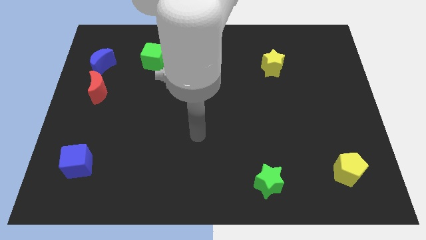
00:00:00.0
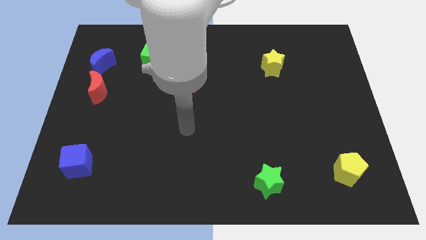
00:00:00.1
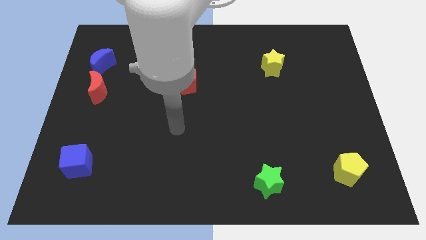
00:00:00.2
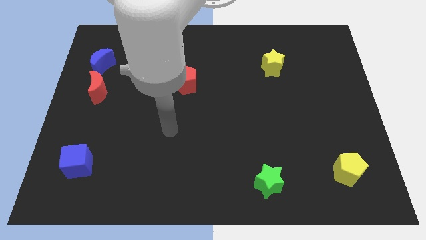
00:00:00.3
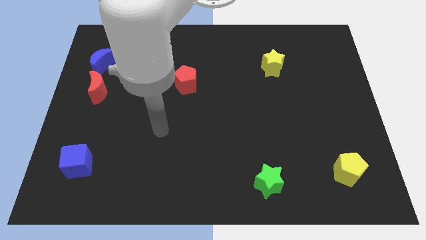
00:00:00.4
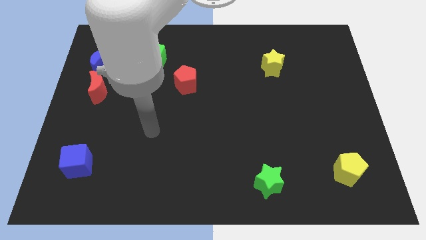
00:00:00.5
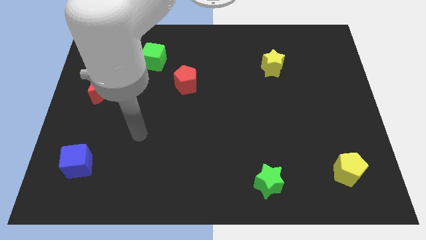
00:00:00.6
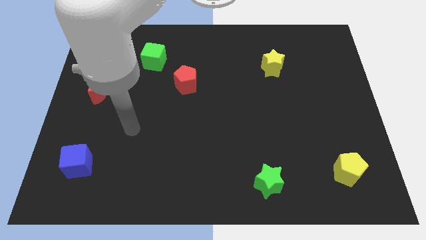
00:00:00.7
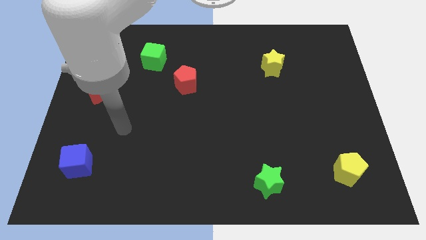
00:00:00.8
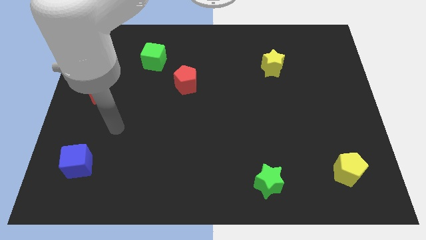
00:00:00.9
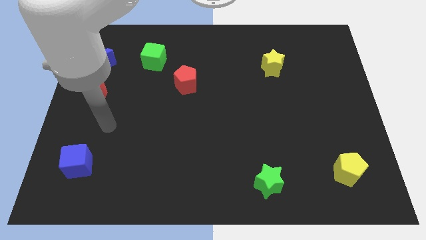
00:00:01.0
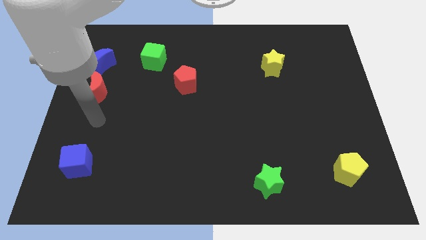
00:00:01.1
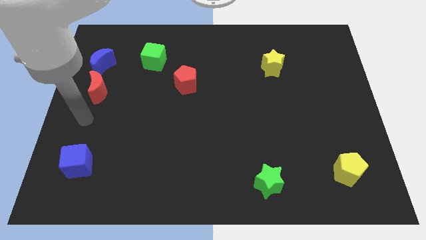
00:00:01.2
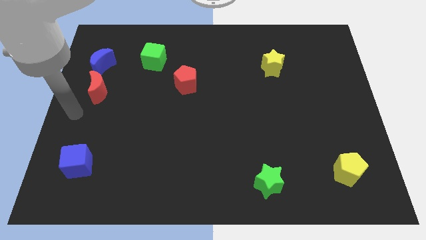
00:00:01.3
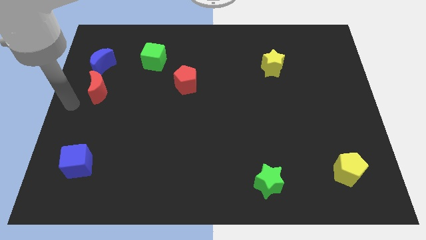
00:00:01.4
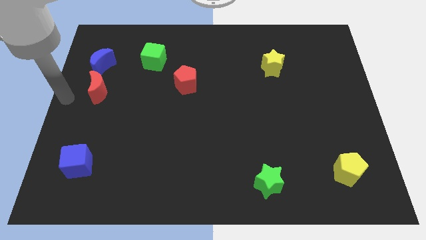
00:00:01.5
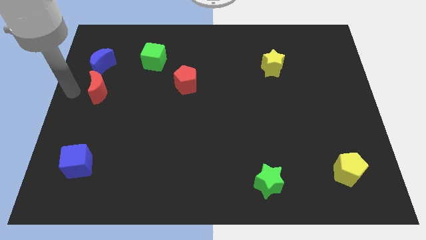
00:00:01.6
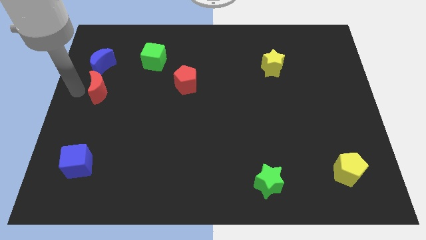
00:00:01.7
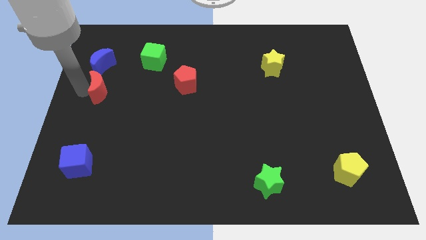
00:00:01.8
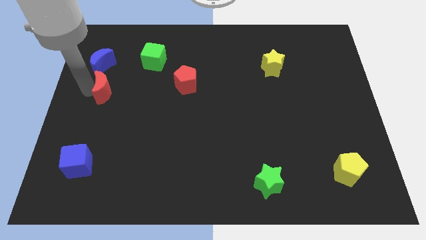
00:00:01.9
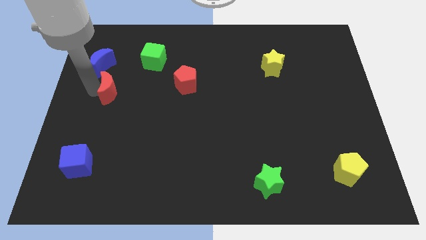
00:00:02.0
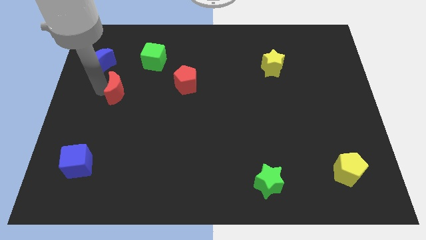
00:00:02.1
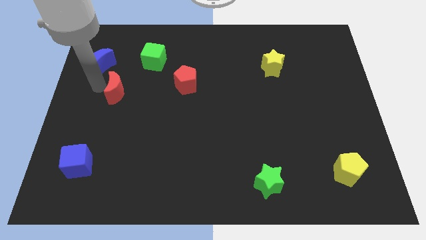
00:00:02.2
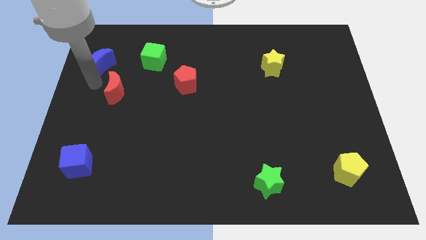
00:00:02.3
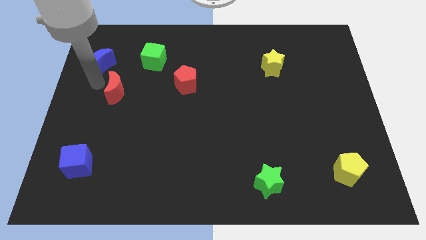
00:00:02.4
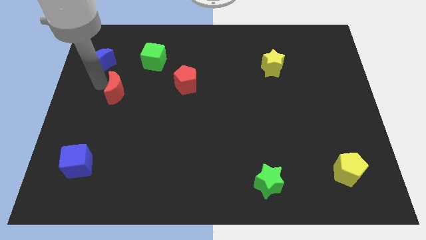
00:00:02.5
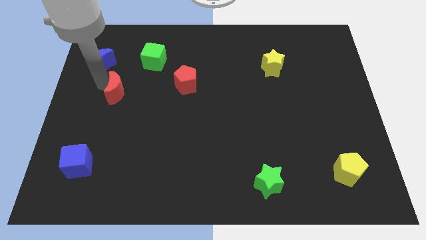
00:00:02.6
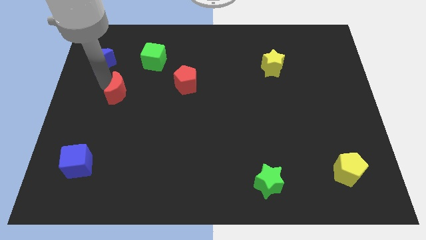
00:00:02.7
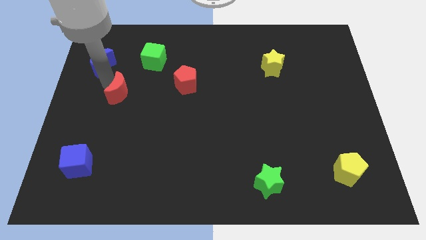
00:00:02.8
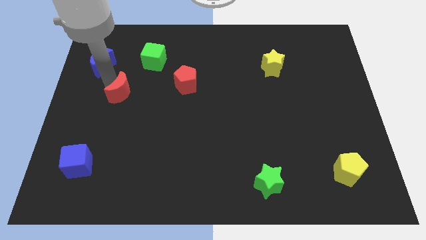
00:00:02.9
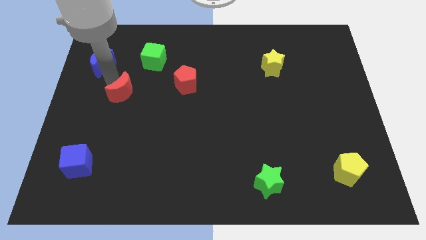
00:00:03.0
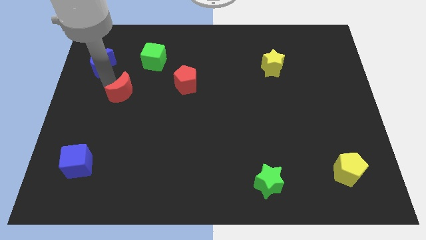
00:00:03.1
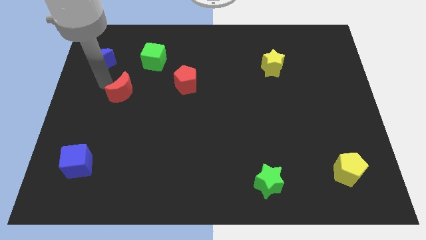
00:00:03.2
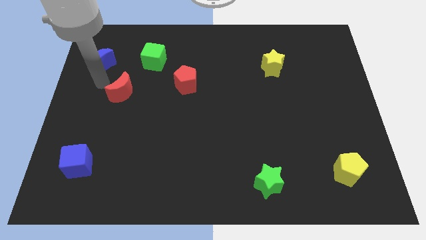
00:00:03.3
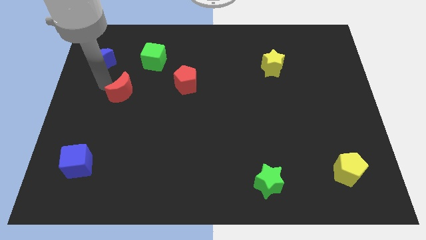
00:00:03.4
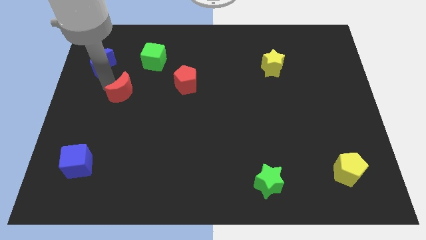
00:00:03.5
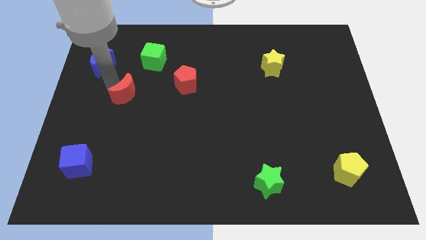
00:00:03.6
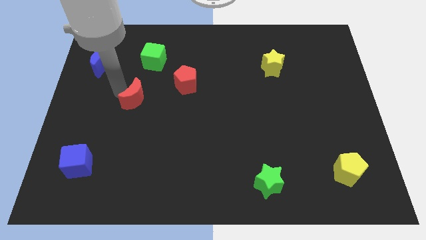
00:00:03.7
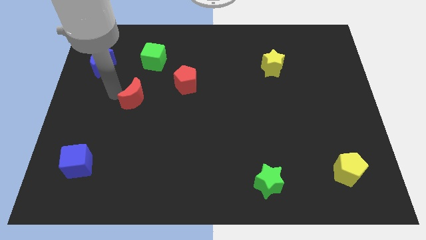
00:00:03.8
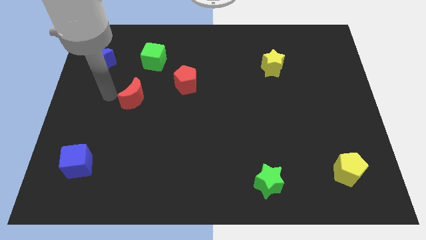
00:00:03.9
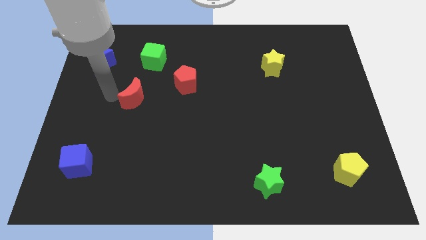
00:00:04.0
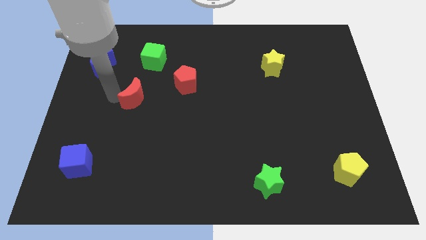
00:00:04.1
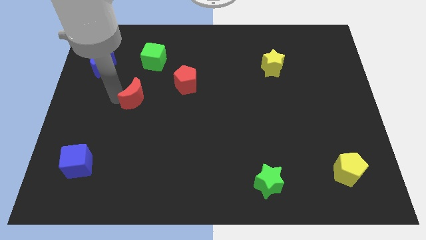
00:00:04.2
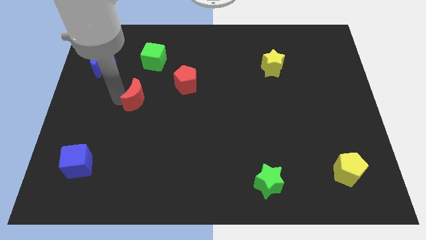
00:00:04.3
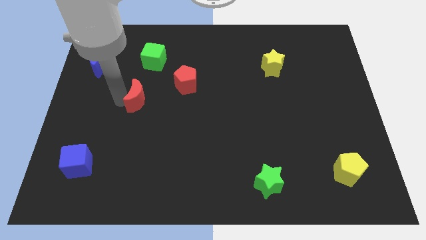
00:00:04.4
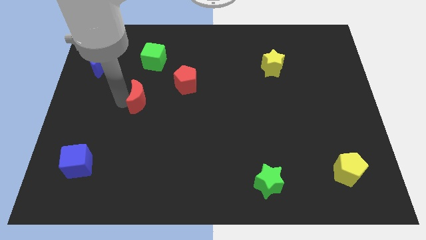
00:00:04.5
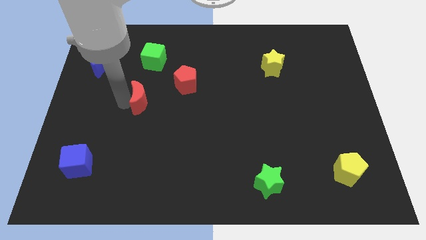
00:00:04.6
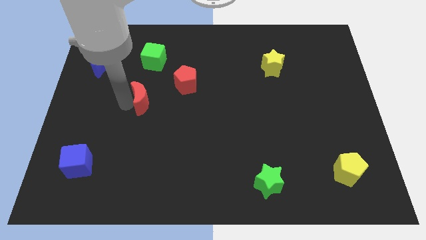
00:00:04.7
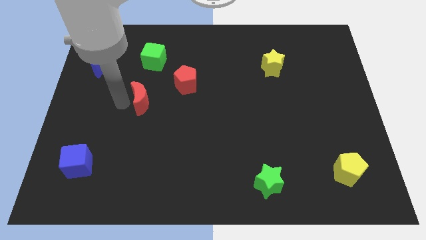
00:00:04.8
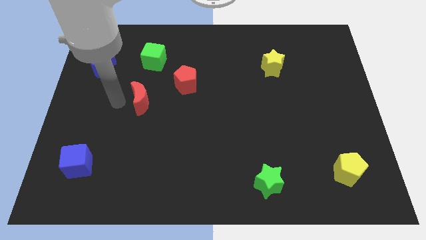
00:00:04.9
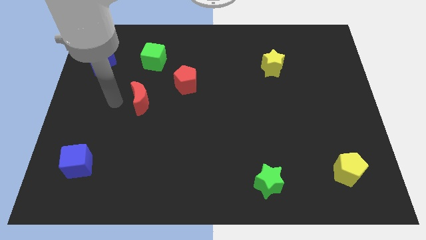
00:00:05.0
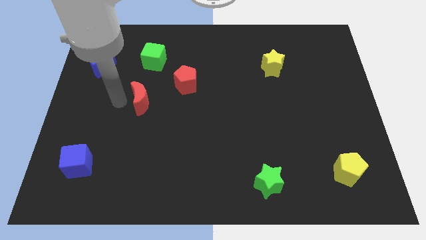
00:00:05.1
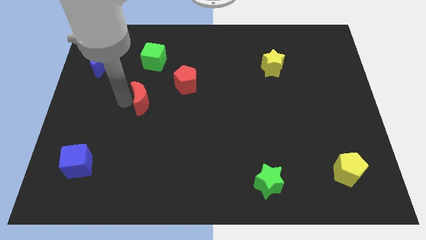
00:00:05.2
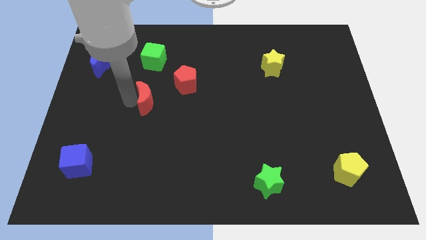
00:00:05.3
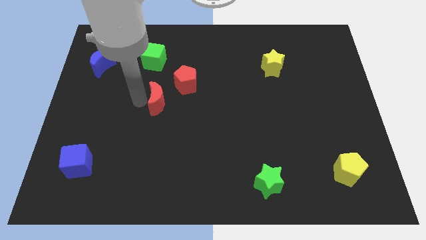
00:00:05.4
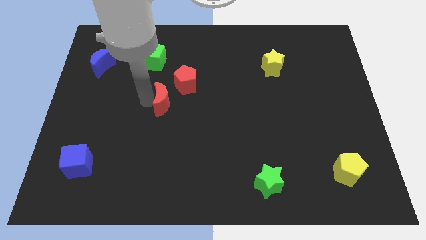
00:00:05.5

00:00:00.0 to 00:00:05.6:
put the red moon to the center

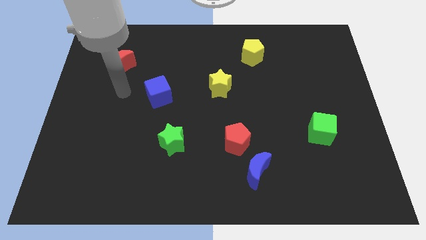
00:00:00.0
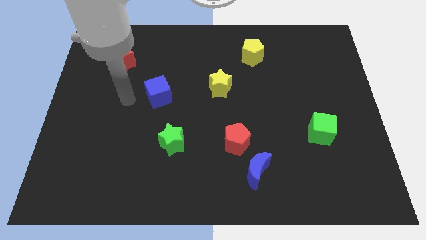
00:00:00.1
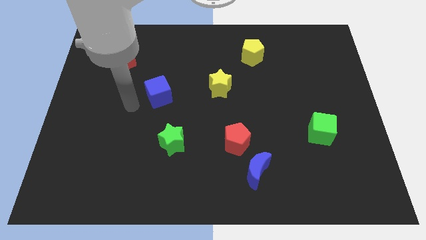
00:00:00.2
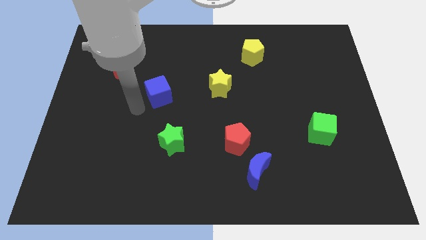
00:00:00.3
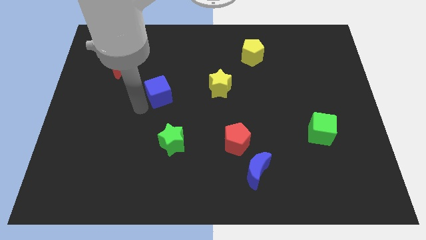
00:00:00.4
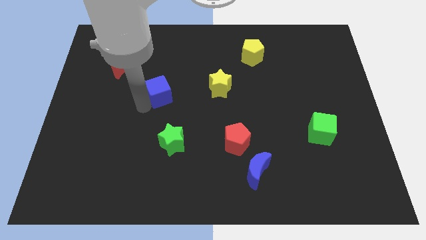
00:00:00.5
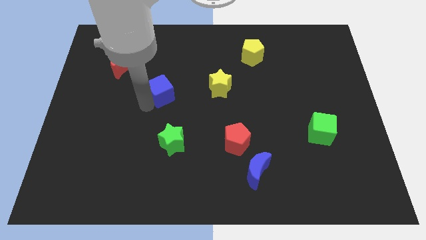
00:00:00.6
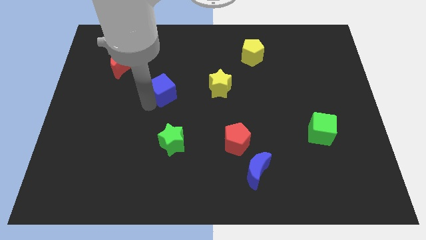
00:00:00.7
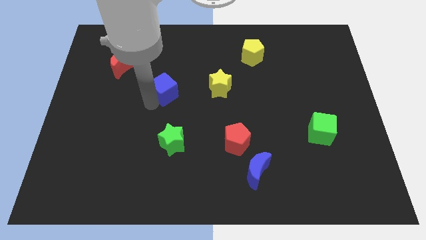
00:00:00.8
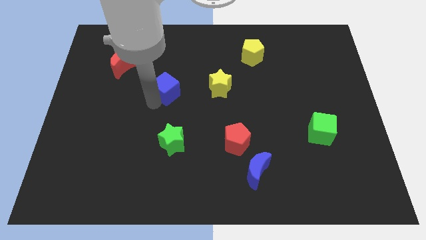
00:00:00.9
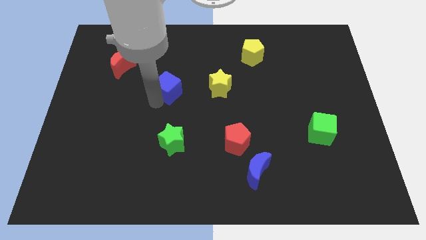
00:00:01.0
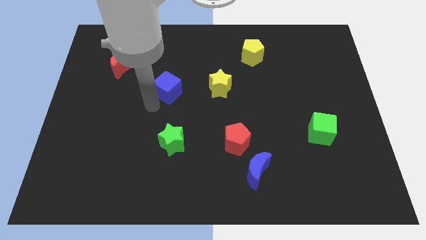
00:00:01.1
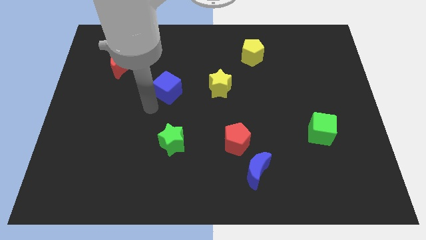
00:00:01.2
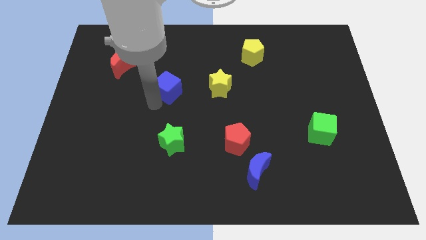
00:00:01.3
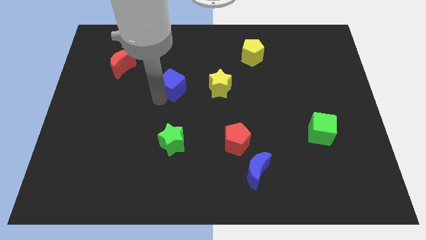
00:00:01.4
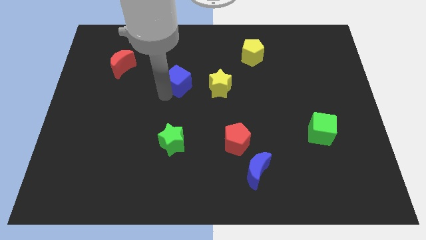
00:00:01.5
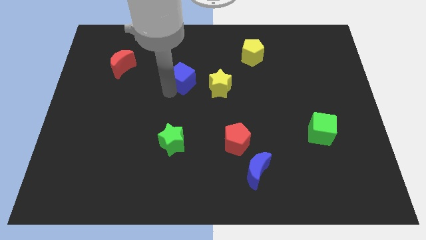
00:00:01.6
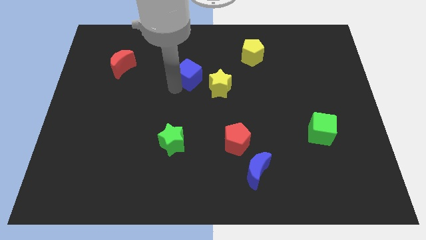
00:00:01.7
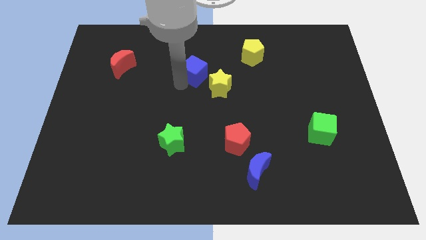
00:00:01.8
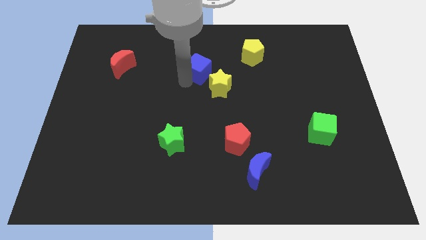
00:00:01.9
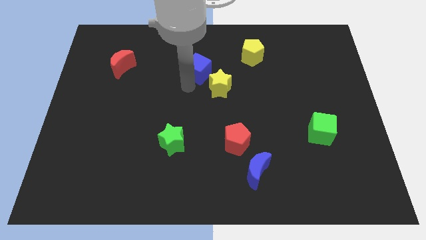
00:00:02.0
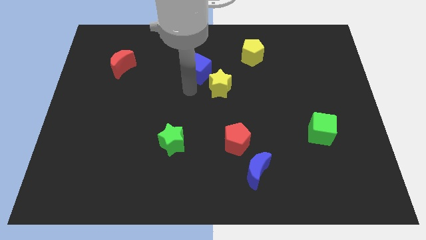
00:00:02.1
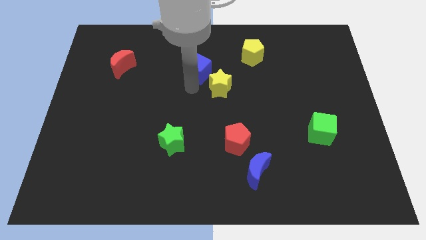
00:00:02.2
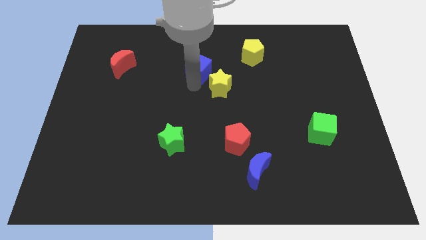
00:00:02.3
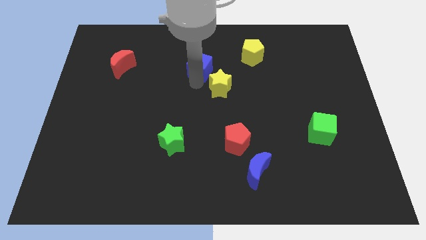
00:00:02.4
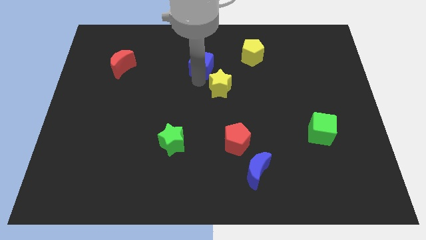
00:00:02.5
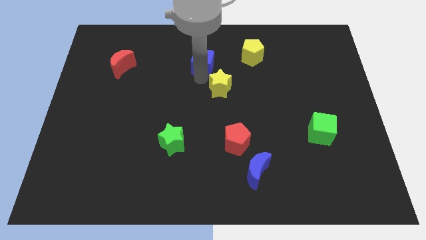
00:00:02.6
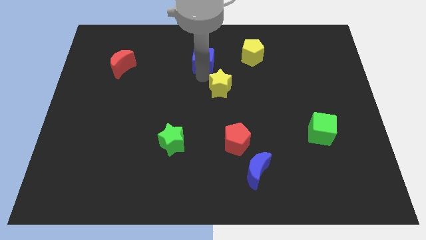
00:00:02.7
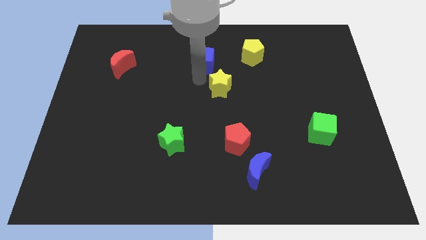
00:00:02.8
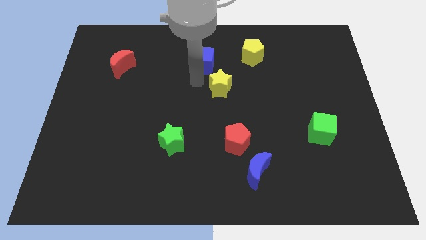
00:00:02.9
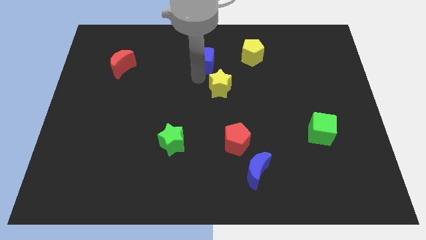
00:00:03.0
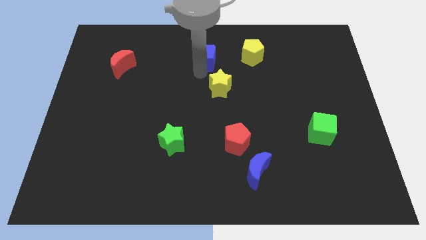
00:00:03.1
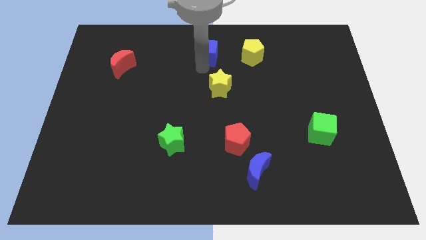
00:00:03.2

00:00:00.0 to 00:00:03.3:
push the blue cube to the top side
